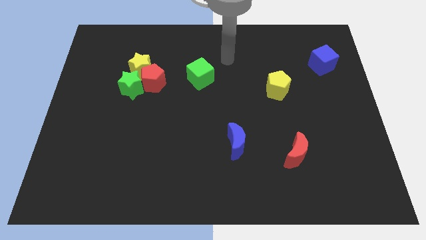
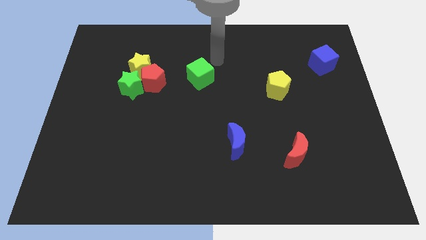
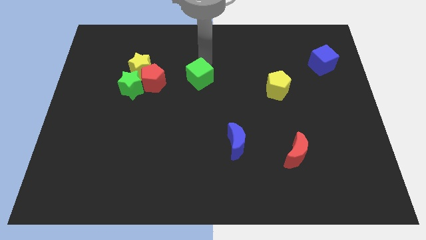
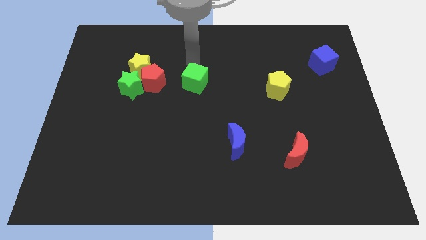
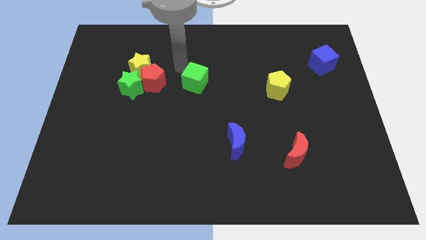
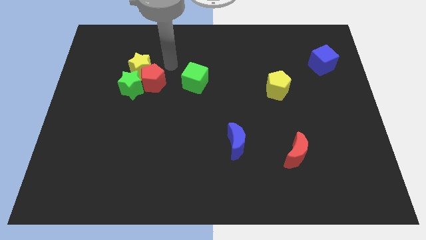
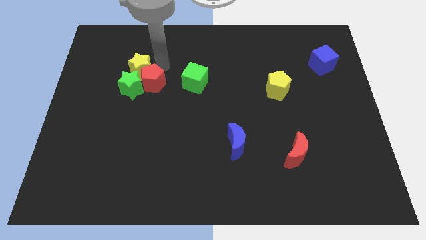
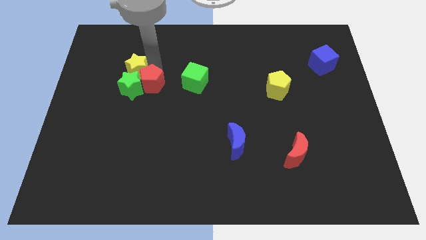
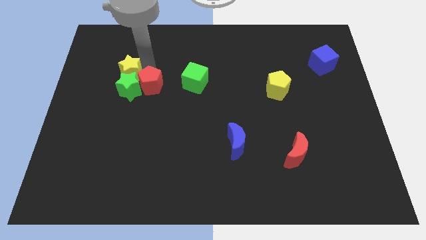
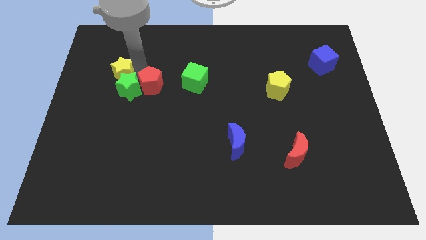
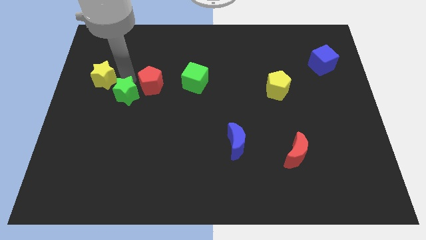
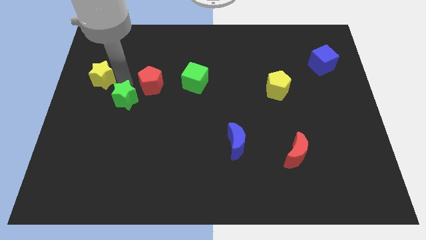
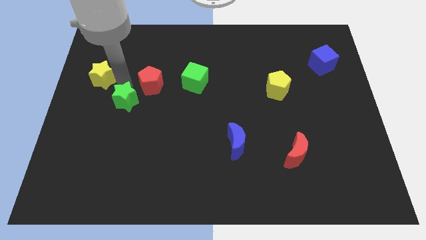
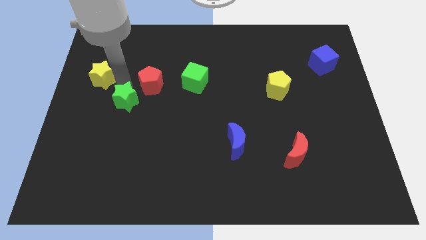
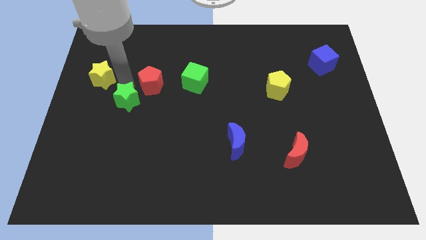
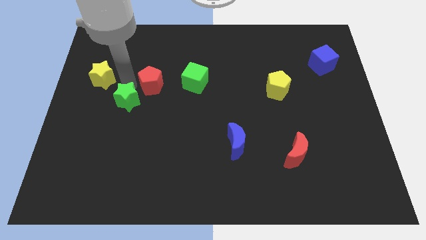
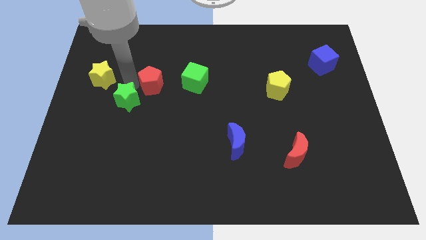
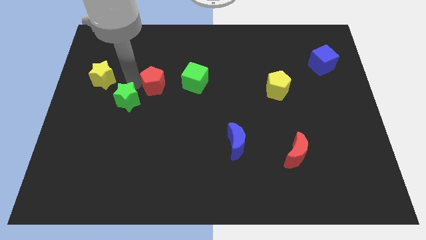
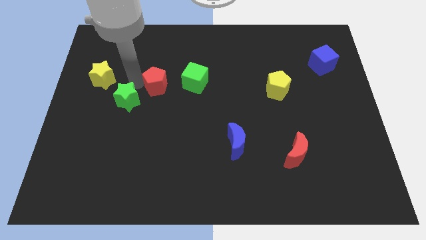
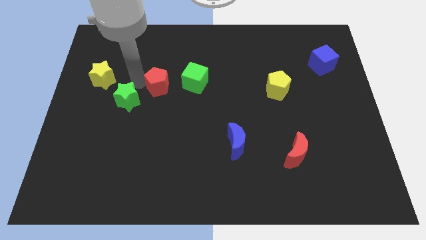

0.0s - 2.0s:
separate the red pentagon from the green star and yellow star

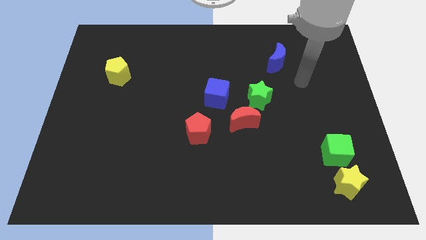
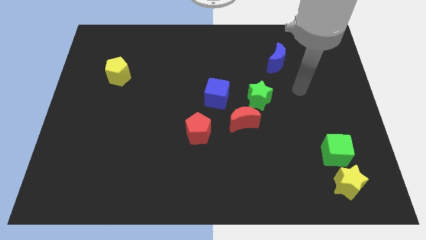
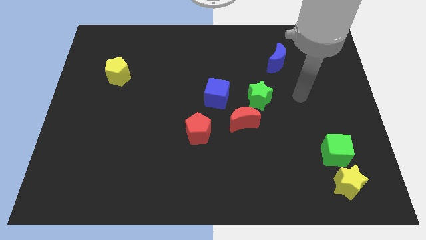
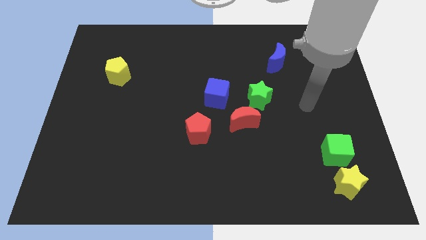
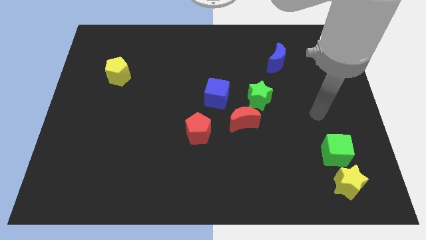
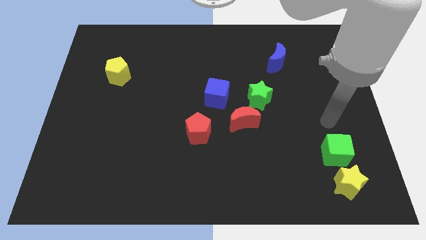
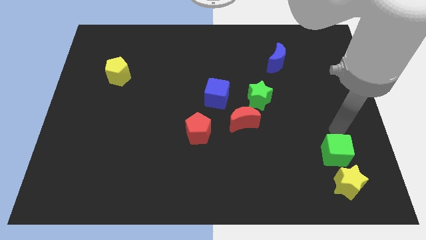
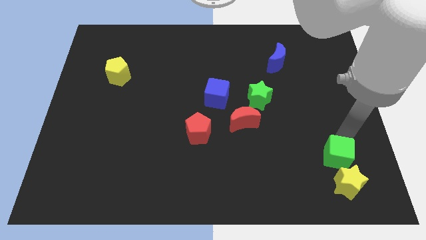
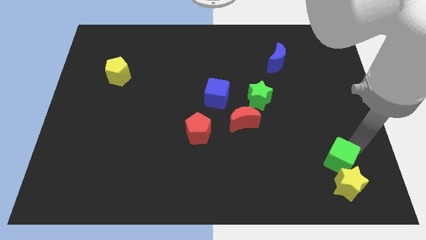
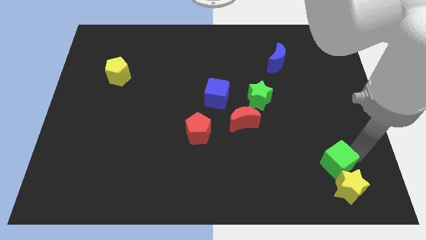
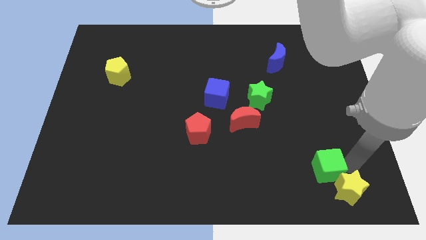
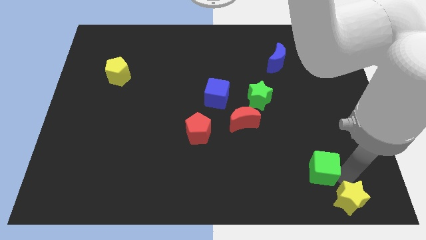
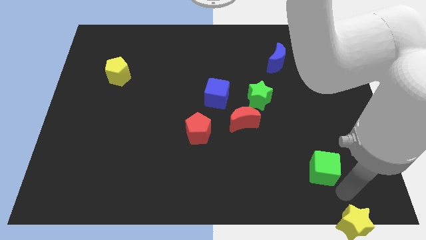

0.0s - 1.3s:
move the green cube away from the yellow star

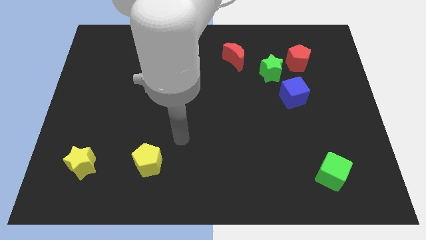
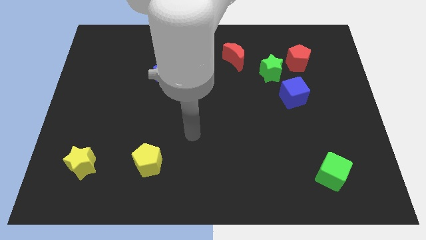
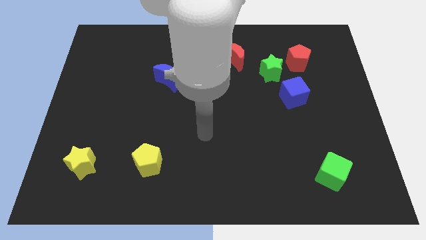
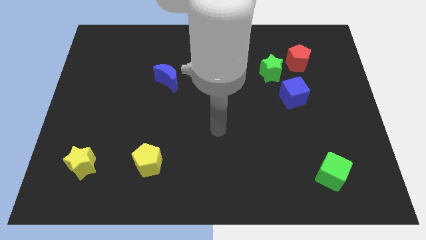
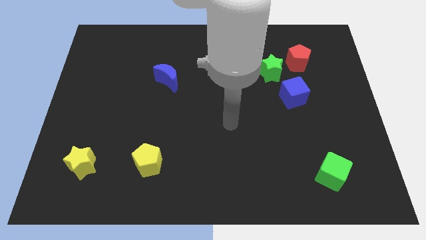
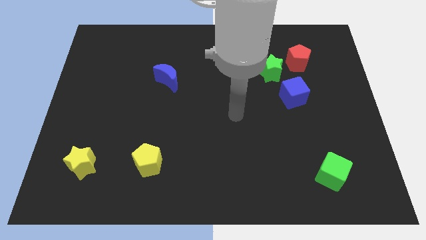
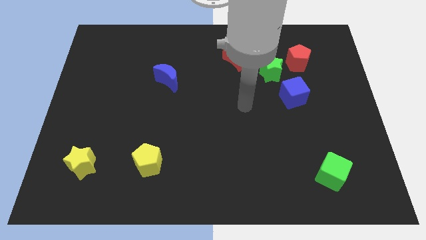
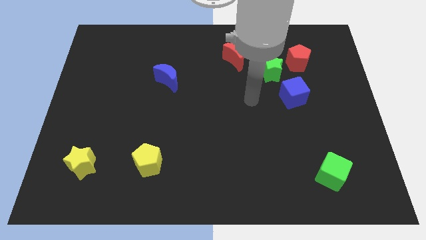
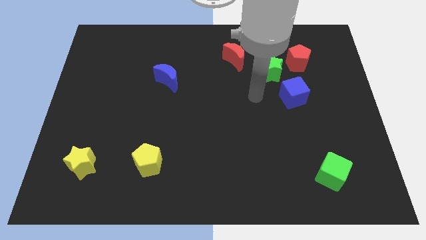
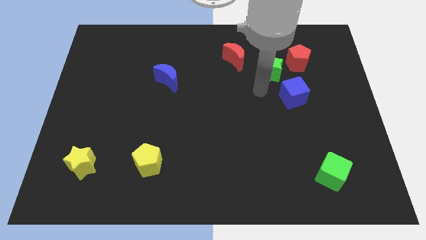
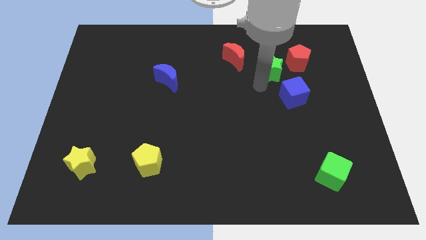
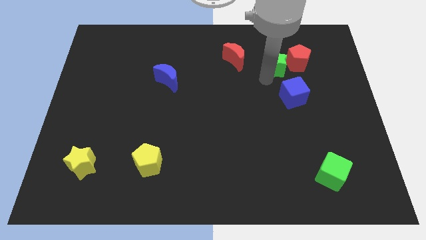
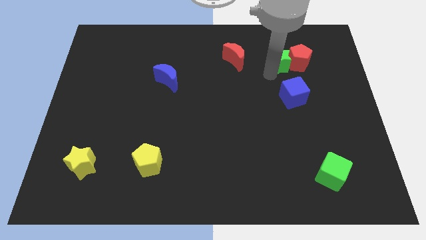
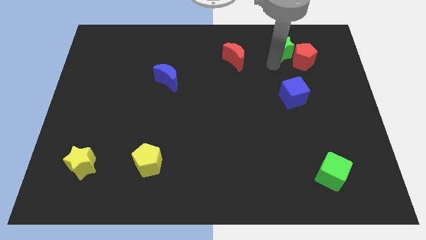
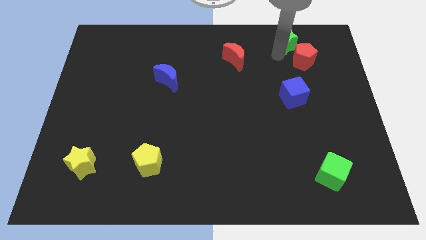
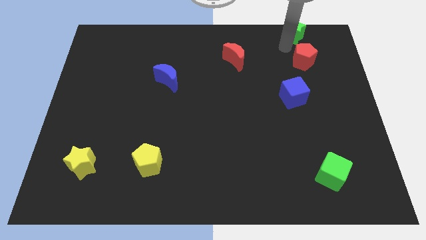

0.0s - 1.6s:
separate the red pentagon from the green star

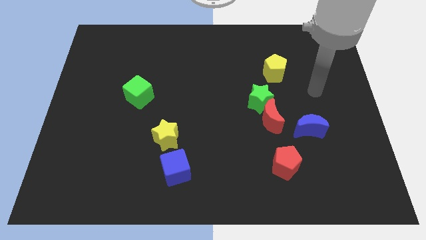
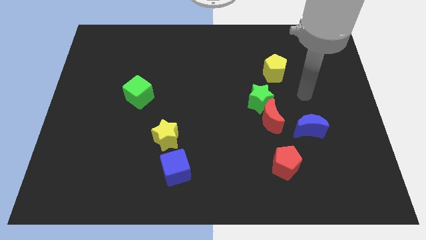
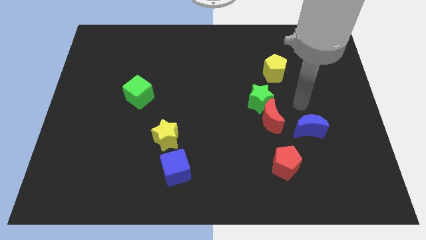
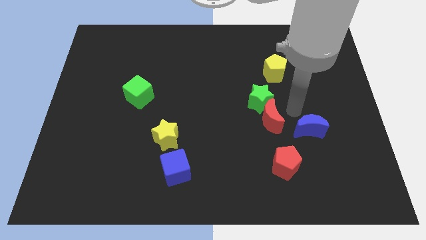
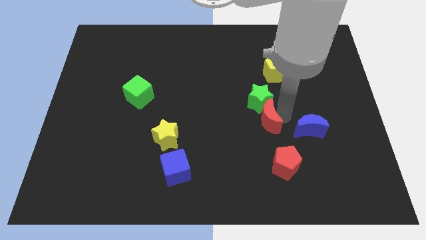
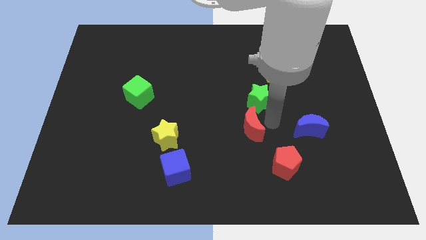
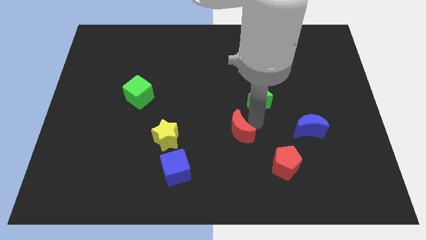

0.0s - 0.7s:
separate the green star from the red moon

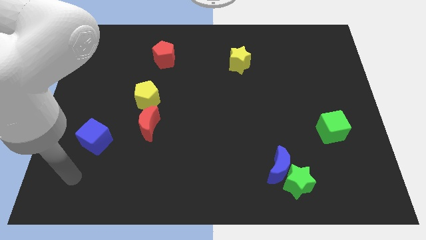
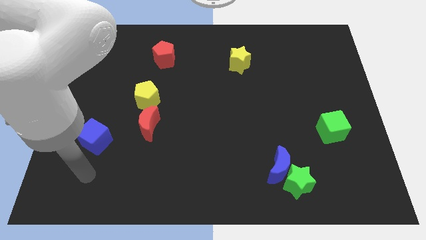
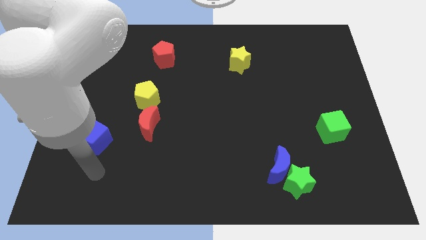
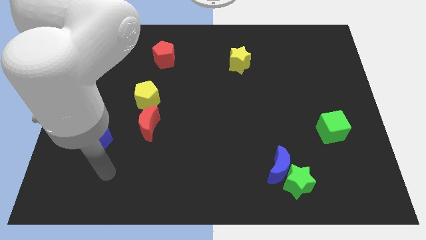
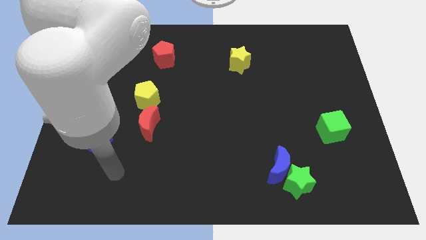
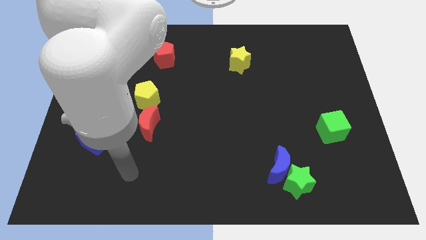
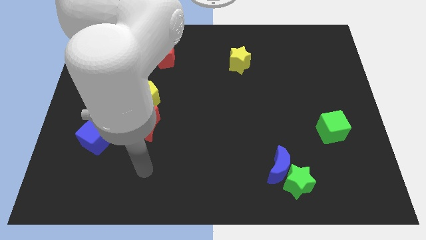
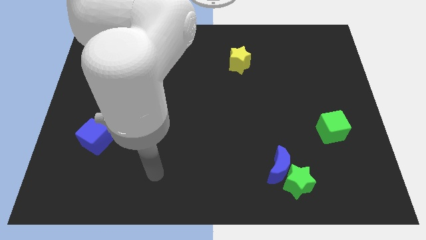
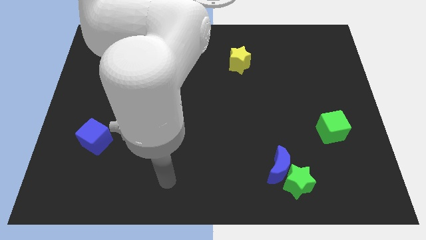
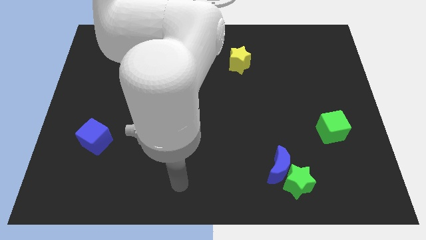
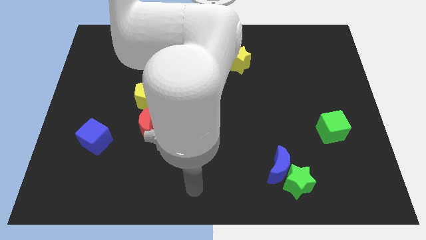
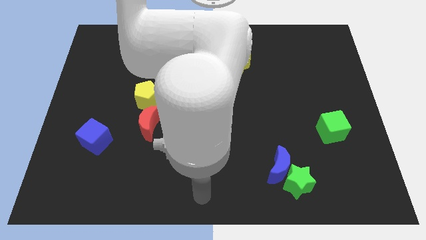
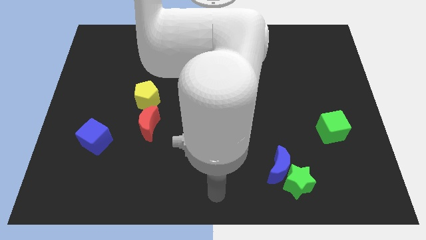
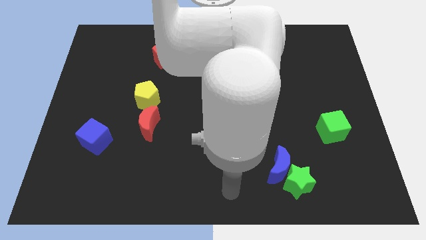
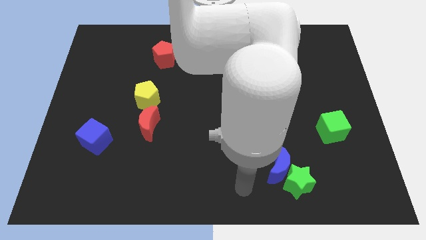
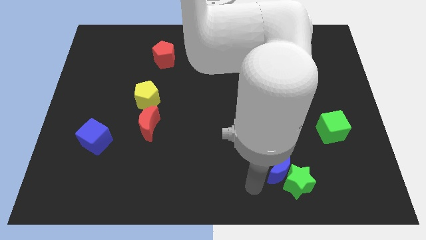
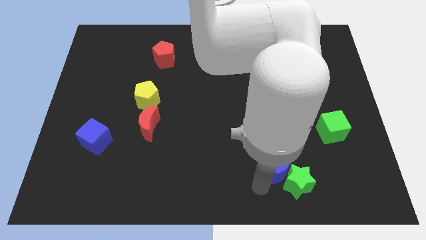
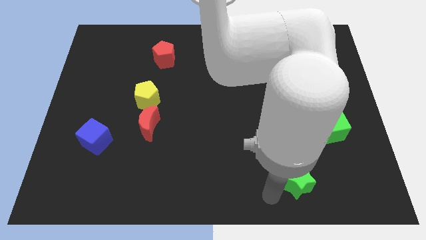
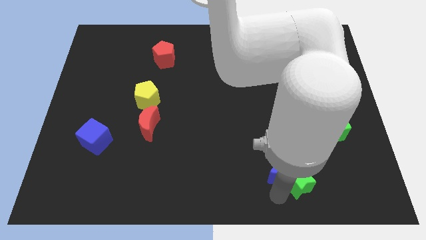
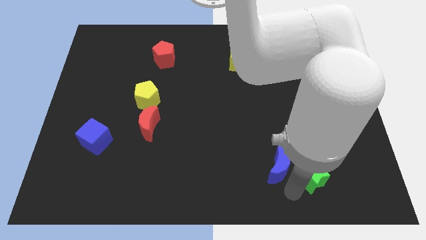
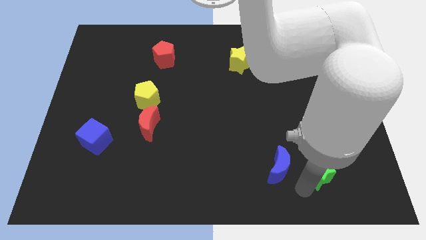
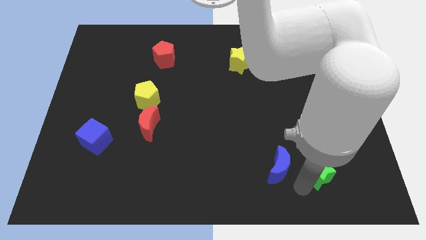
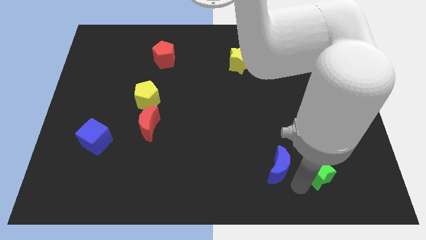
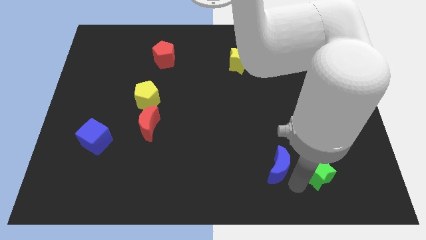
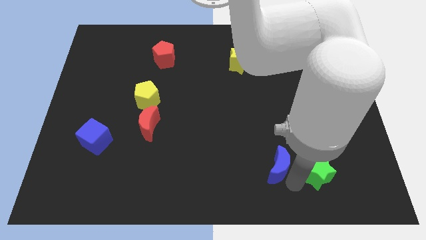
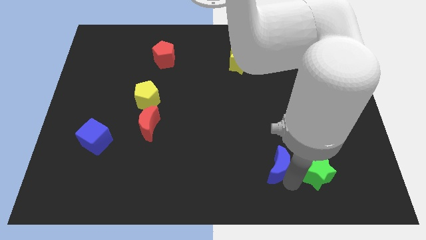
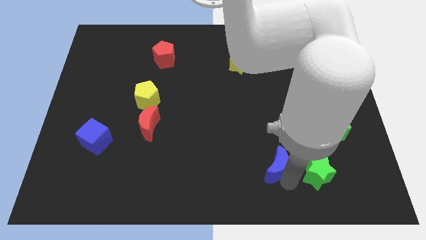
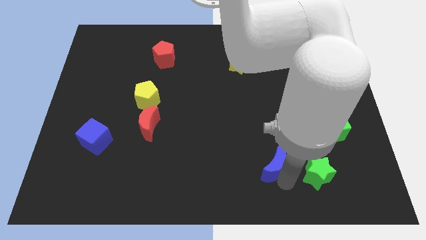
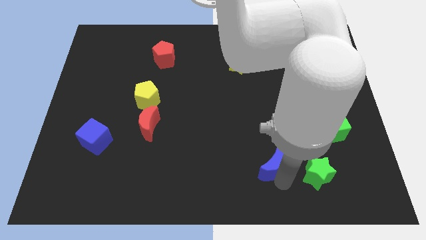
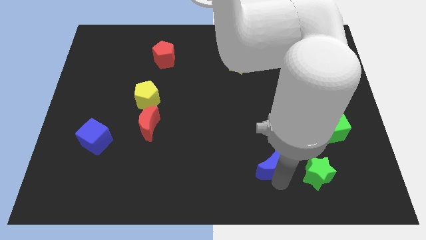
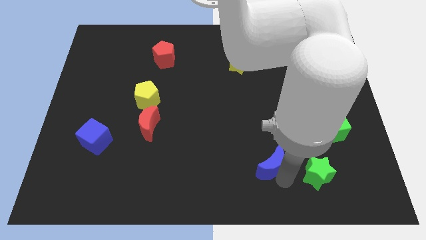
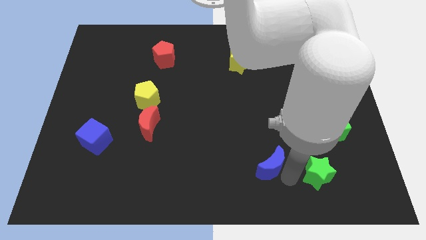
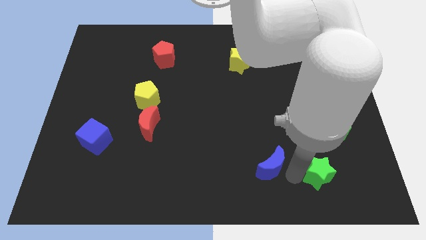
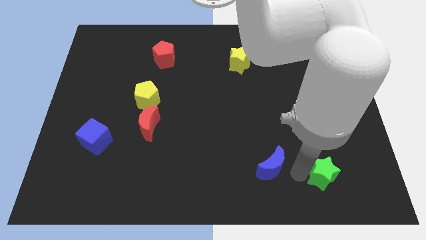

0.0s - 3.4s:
move the blue moon away from the green star

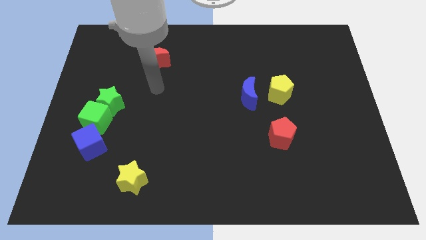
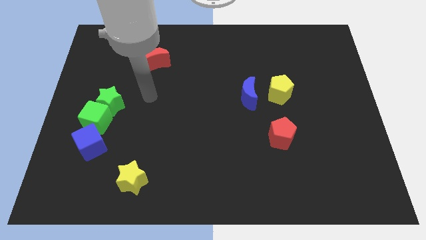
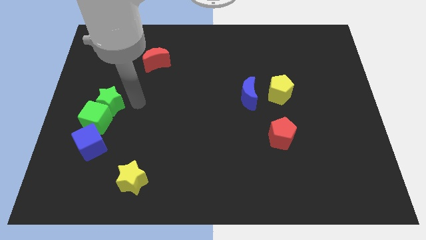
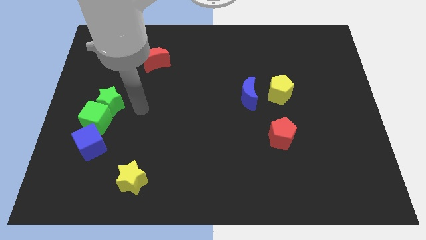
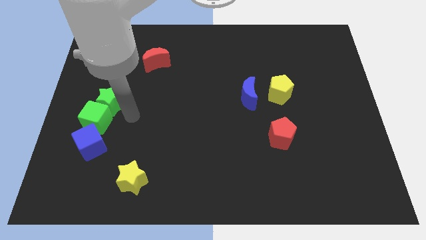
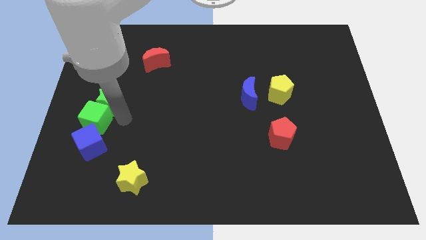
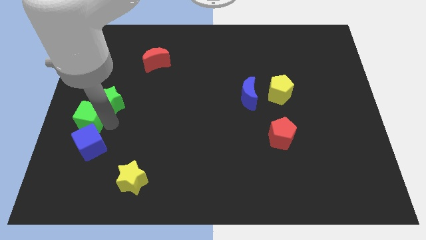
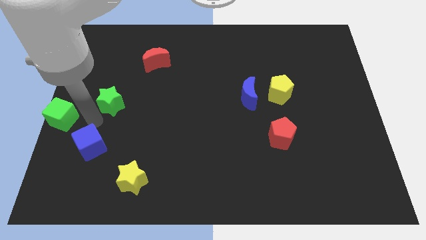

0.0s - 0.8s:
pull the green star apart from the green cube
